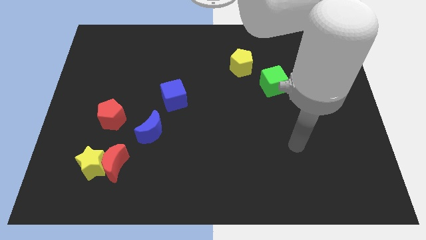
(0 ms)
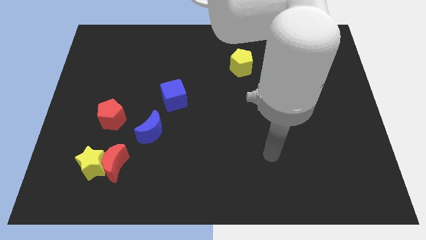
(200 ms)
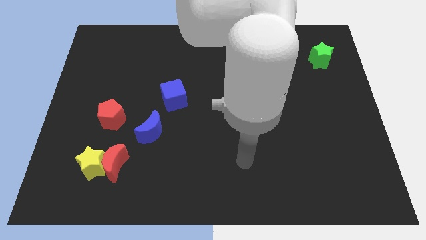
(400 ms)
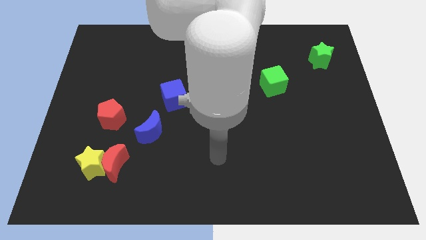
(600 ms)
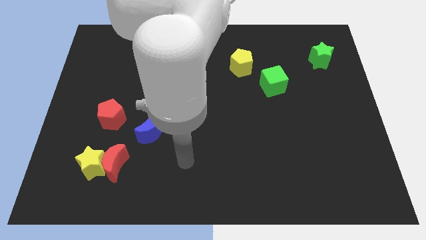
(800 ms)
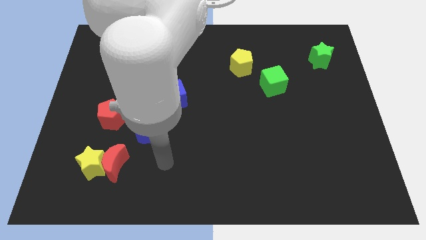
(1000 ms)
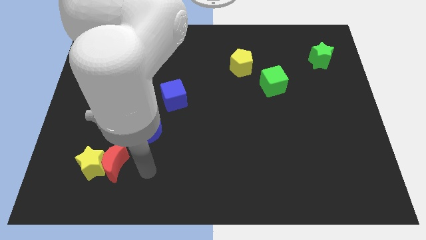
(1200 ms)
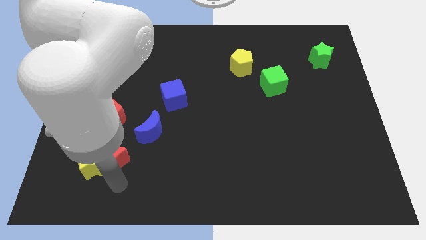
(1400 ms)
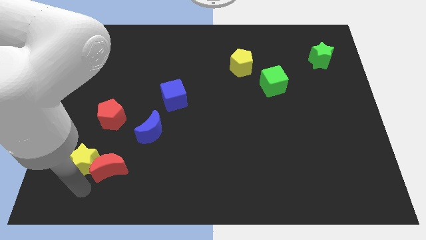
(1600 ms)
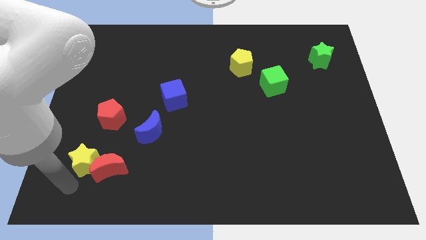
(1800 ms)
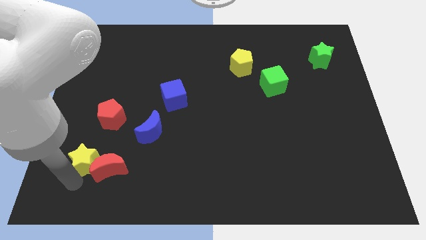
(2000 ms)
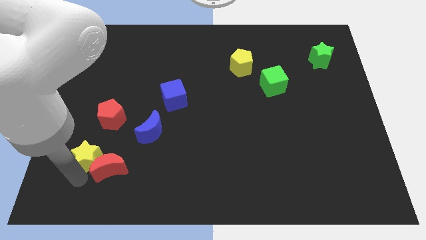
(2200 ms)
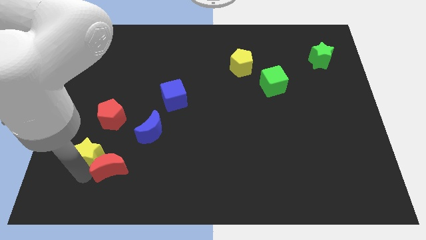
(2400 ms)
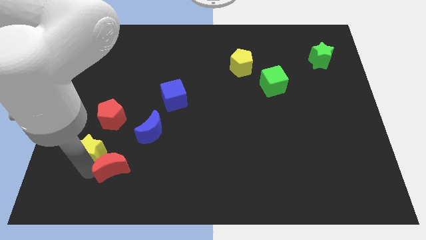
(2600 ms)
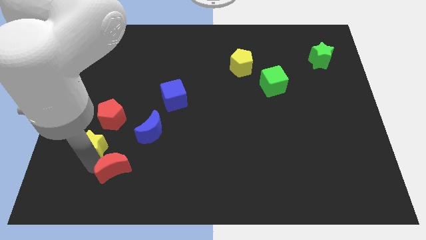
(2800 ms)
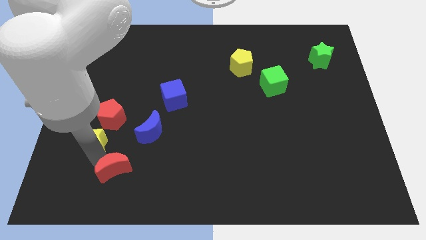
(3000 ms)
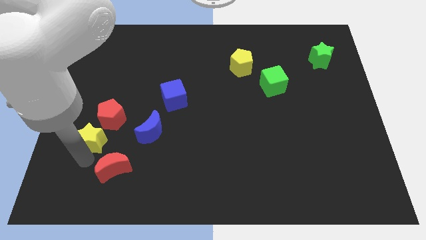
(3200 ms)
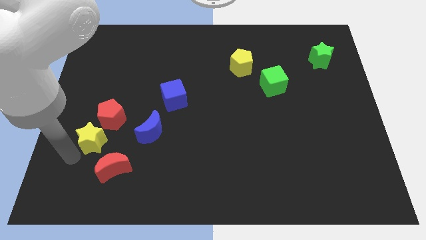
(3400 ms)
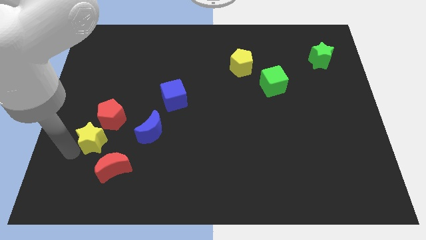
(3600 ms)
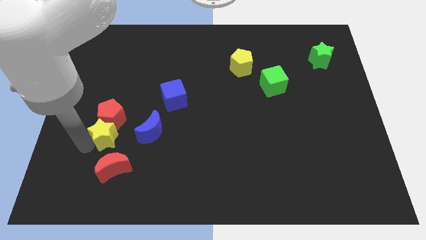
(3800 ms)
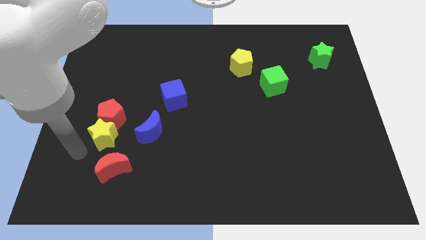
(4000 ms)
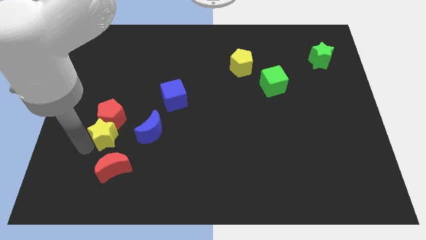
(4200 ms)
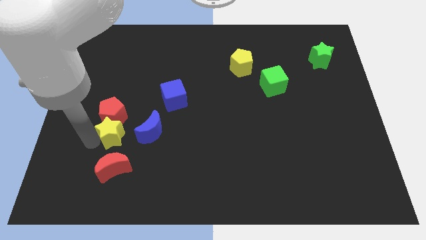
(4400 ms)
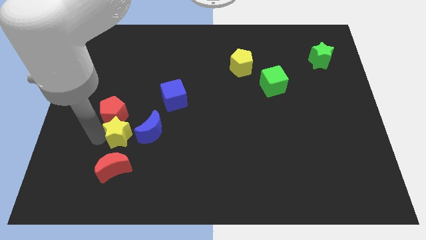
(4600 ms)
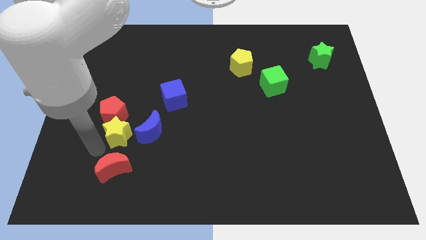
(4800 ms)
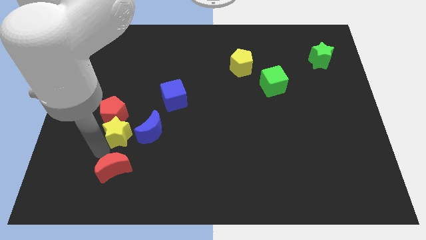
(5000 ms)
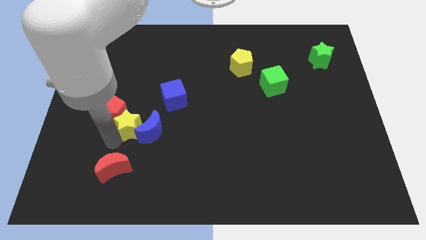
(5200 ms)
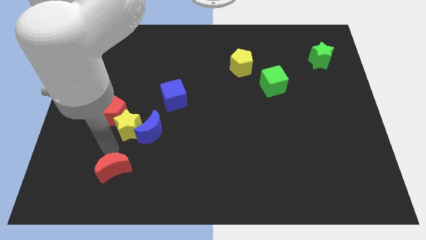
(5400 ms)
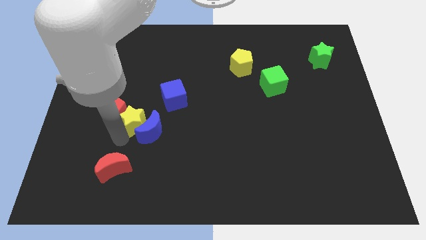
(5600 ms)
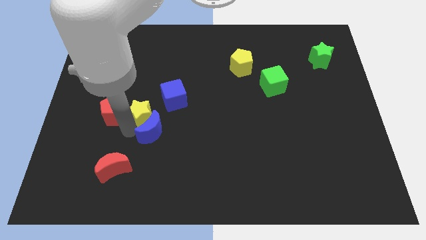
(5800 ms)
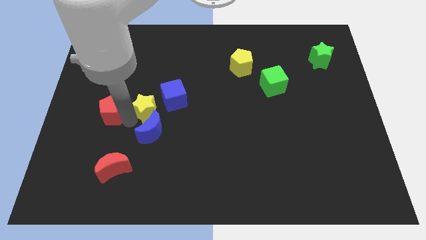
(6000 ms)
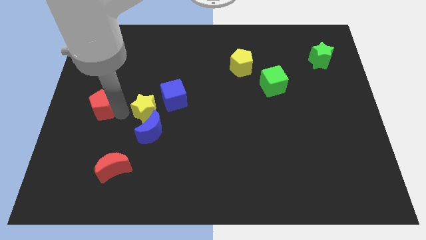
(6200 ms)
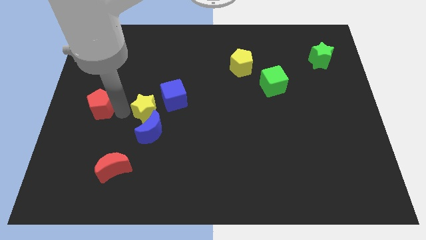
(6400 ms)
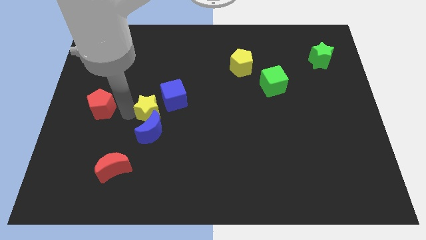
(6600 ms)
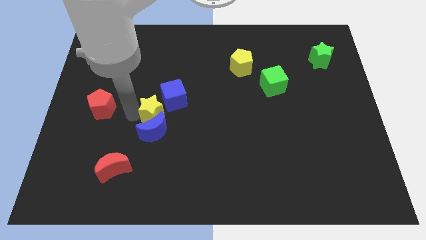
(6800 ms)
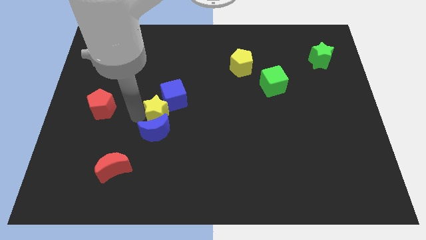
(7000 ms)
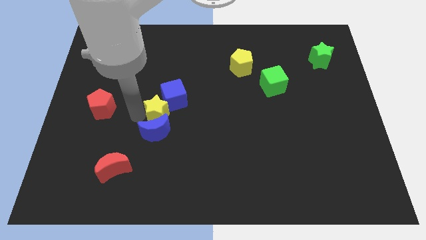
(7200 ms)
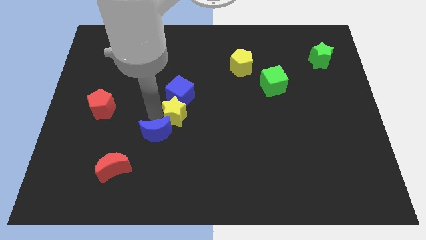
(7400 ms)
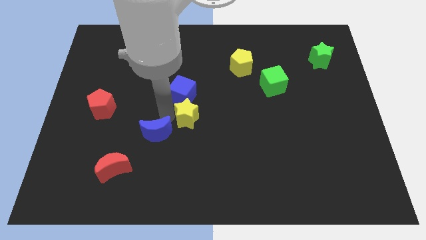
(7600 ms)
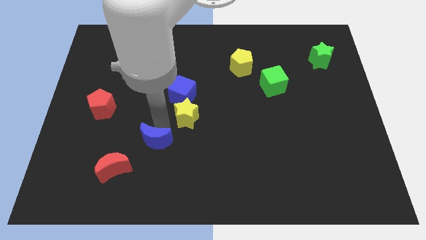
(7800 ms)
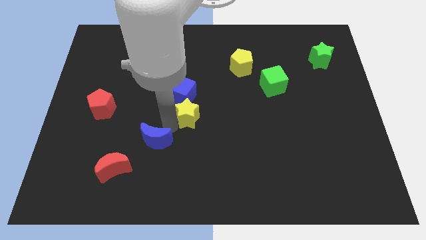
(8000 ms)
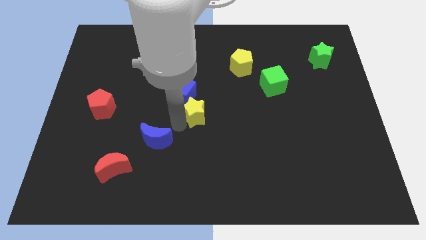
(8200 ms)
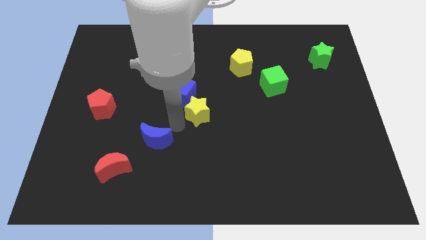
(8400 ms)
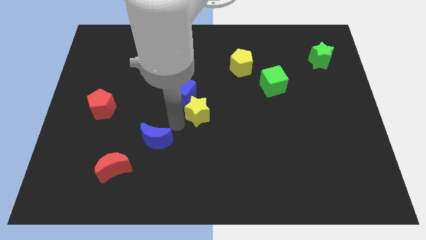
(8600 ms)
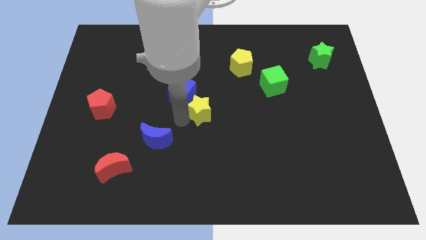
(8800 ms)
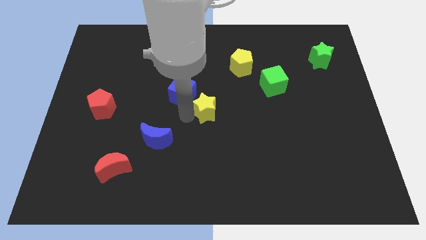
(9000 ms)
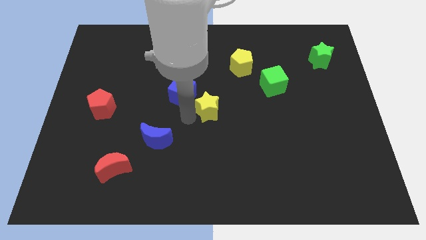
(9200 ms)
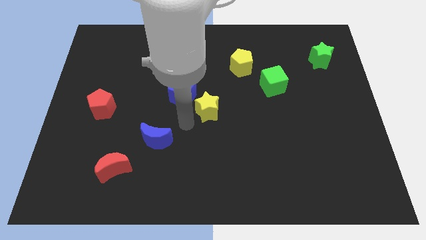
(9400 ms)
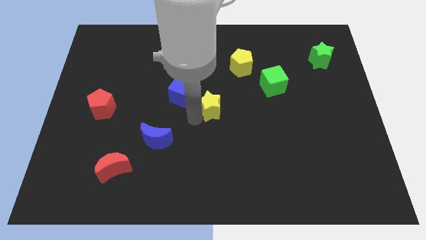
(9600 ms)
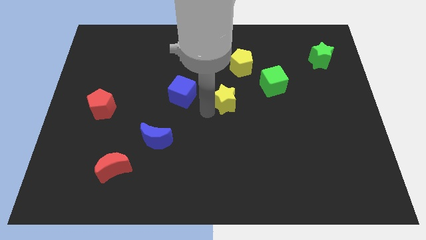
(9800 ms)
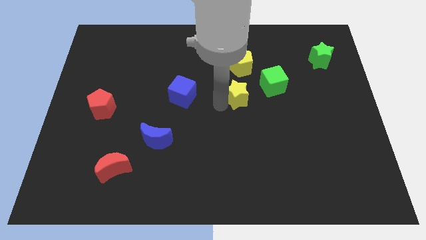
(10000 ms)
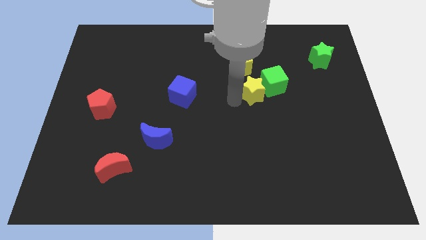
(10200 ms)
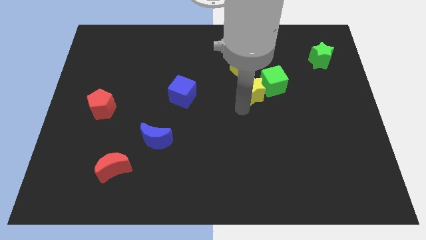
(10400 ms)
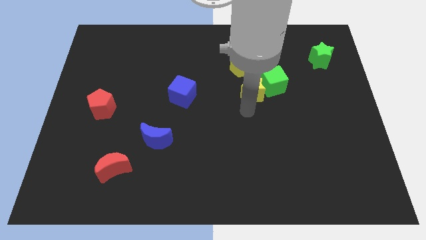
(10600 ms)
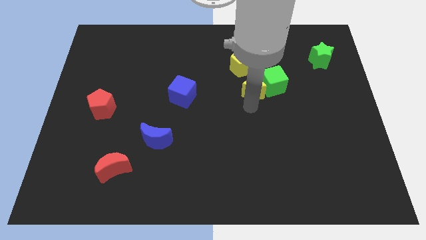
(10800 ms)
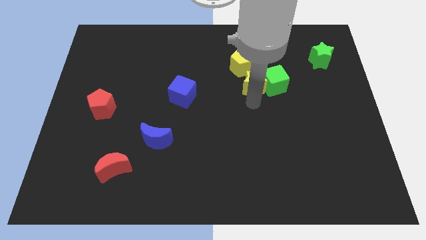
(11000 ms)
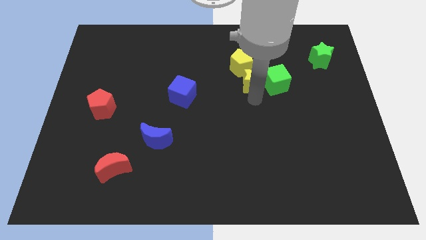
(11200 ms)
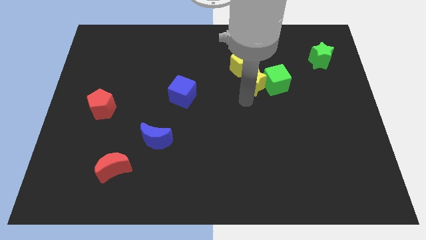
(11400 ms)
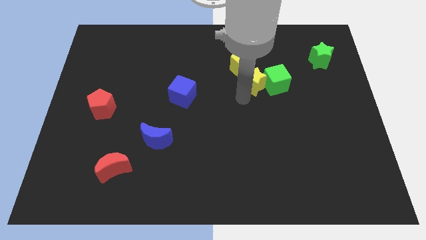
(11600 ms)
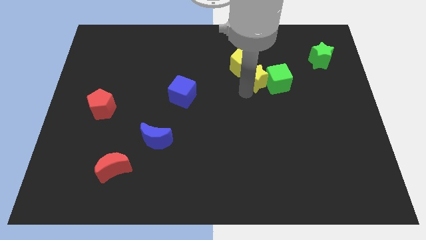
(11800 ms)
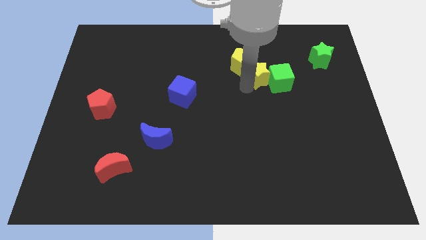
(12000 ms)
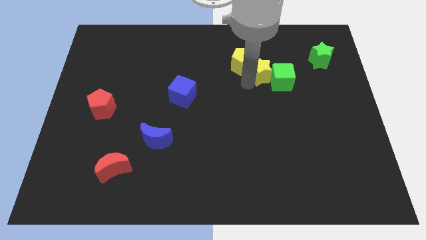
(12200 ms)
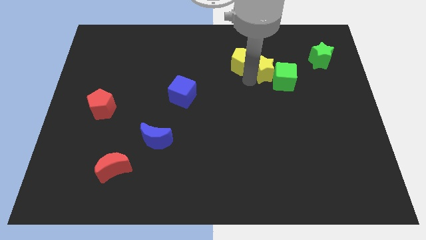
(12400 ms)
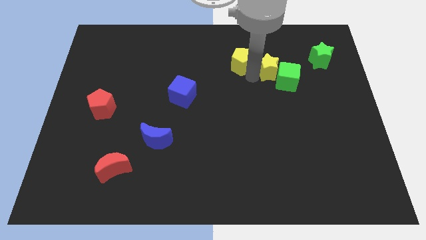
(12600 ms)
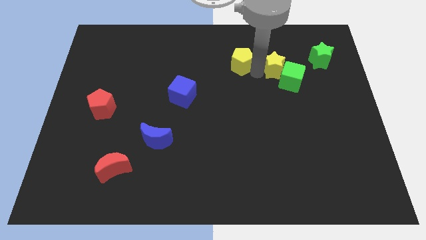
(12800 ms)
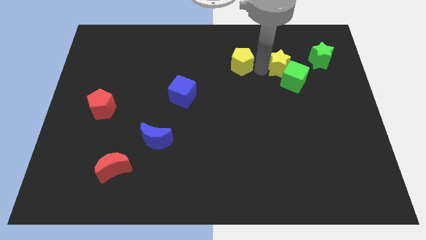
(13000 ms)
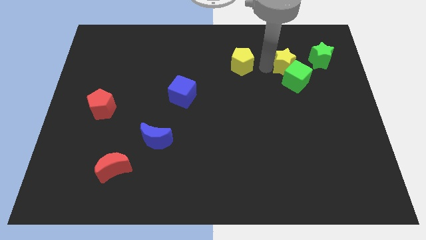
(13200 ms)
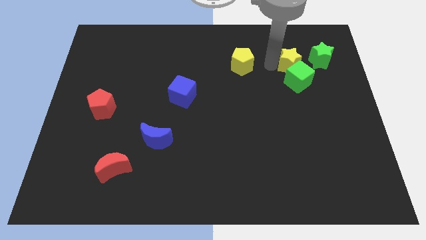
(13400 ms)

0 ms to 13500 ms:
move the yellow star to the bottom left of the green star

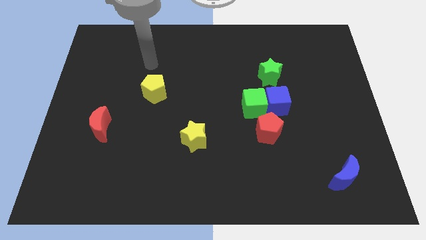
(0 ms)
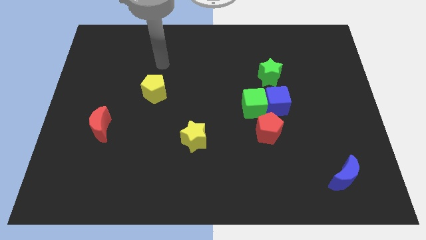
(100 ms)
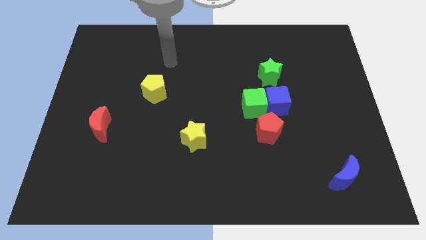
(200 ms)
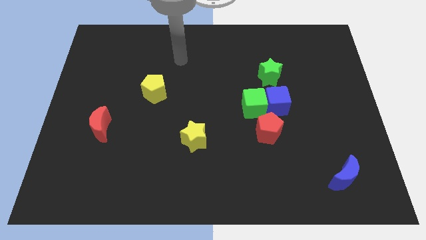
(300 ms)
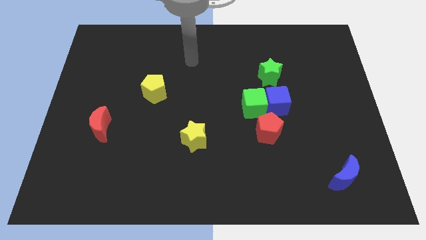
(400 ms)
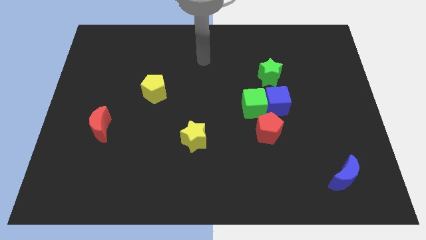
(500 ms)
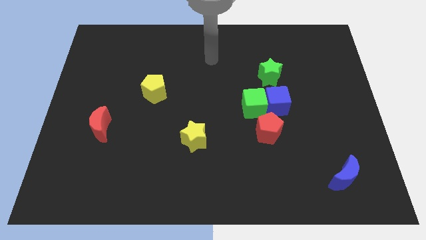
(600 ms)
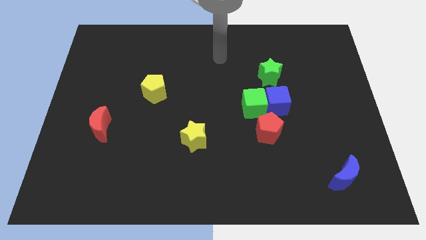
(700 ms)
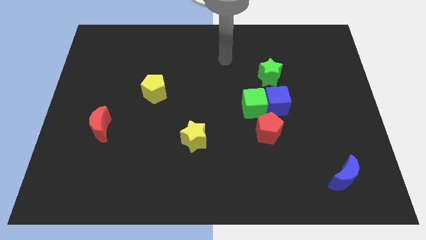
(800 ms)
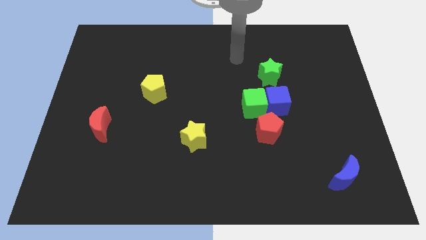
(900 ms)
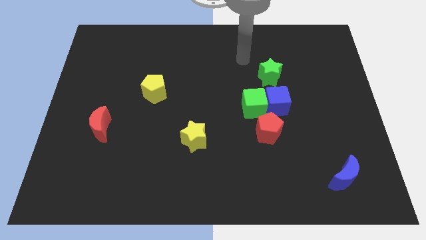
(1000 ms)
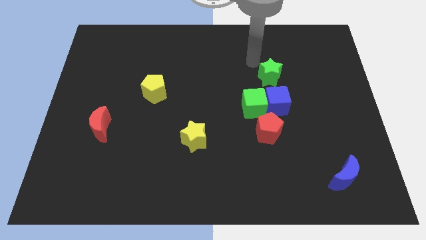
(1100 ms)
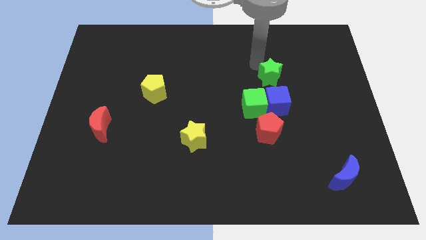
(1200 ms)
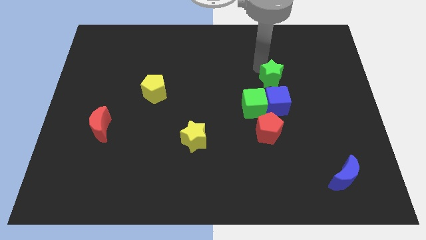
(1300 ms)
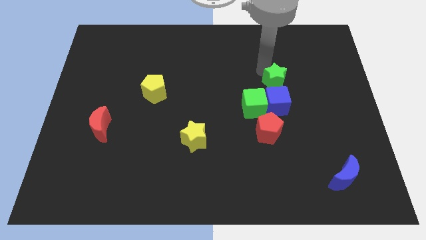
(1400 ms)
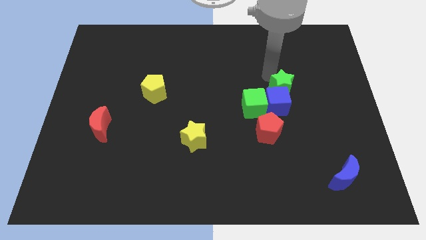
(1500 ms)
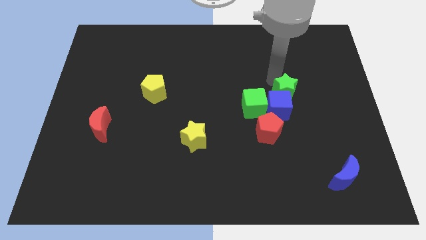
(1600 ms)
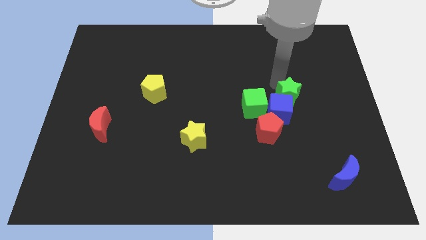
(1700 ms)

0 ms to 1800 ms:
put the green star to the top right of the red pentagon
